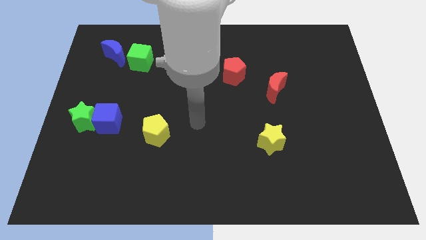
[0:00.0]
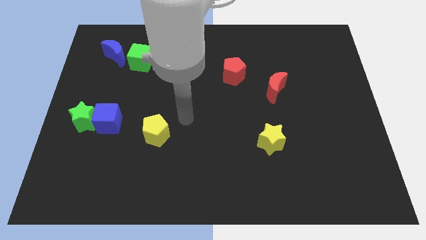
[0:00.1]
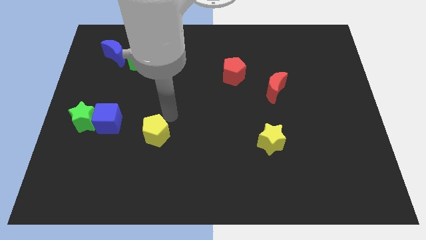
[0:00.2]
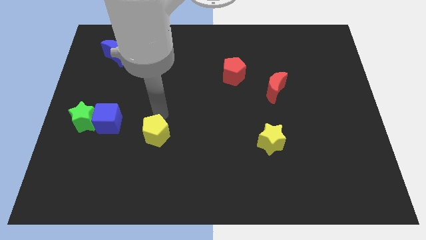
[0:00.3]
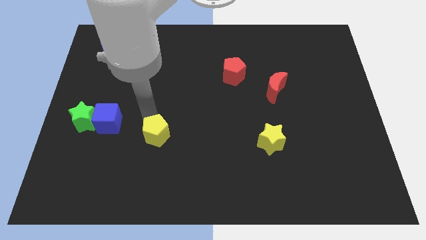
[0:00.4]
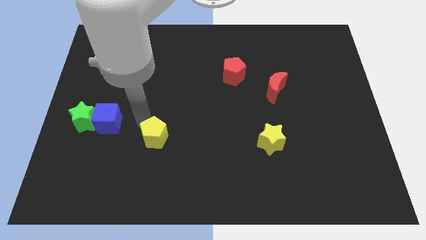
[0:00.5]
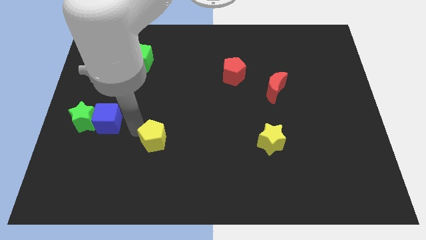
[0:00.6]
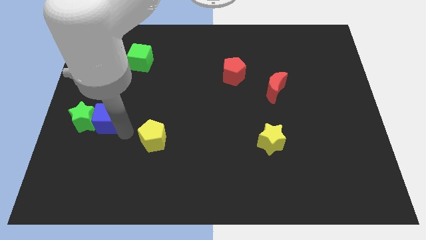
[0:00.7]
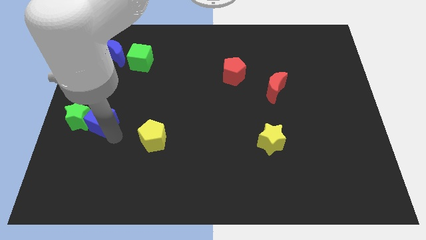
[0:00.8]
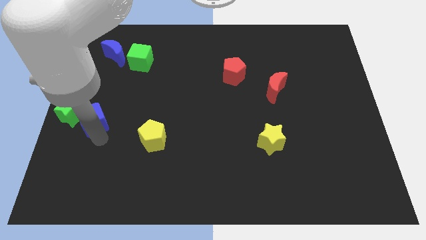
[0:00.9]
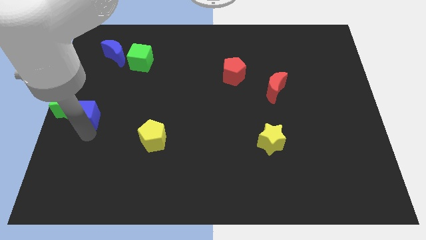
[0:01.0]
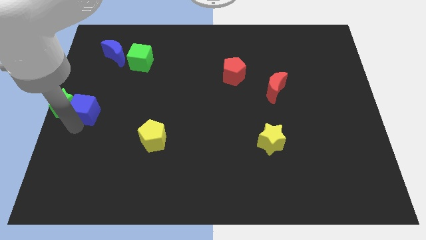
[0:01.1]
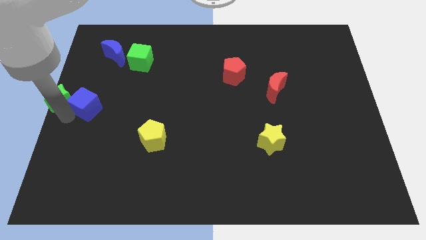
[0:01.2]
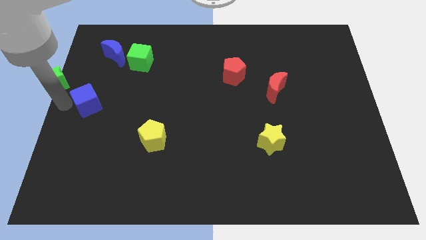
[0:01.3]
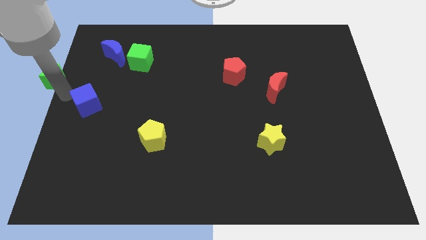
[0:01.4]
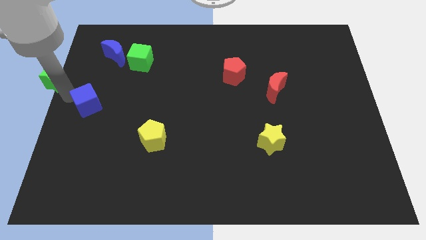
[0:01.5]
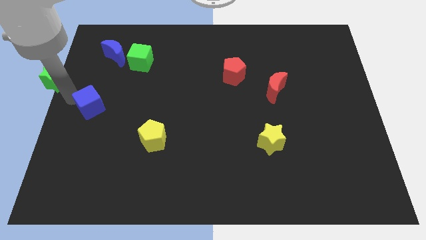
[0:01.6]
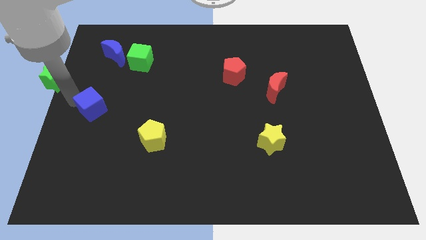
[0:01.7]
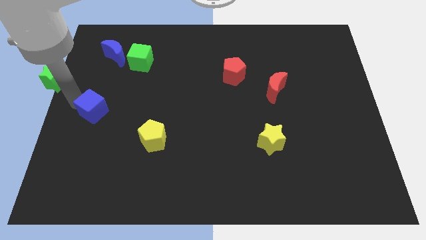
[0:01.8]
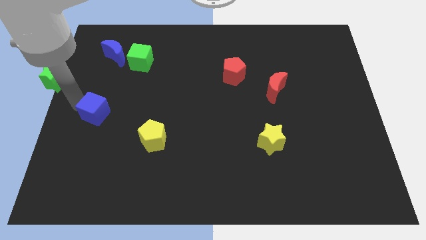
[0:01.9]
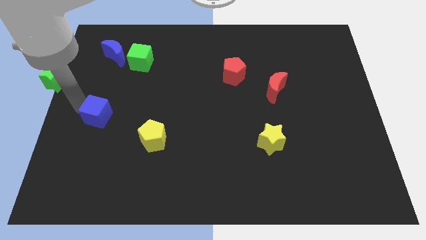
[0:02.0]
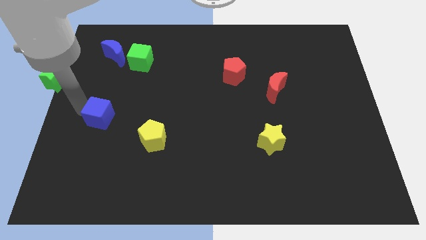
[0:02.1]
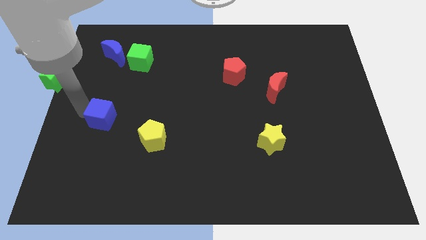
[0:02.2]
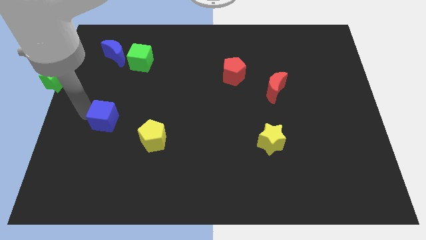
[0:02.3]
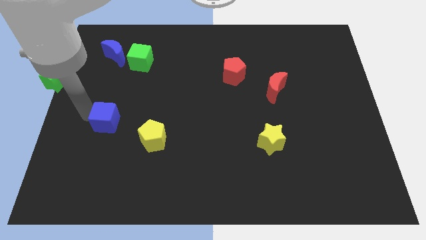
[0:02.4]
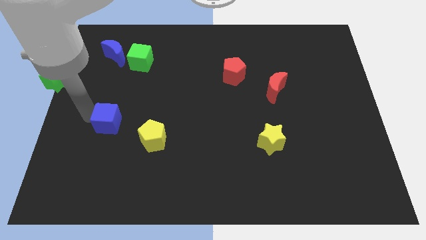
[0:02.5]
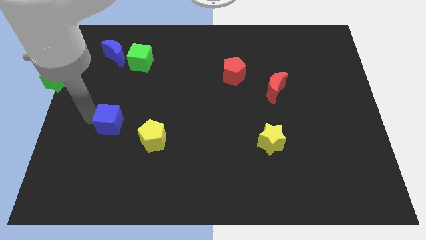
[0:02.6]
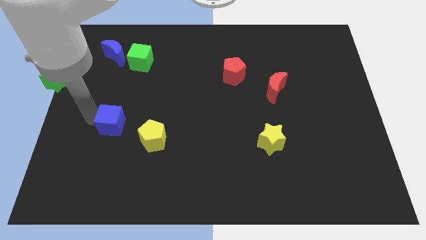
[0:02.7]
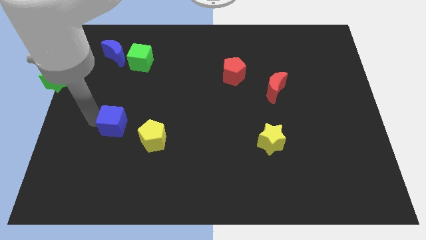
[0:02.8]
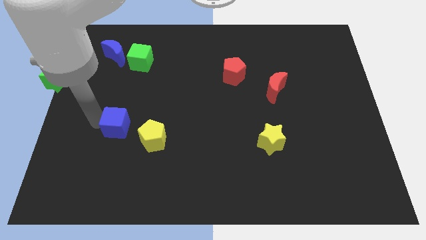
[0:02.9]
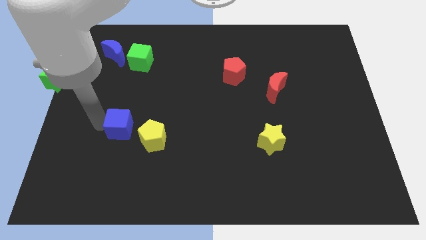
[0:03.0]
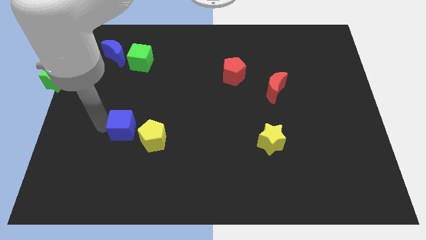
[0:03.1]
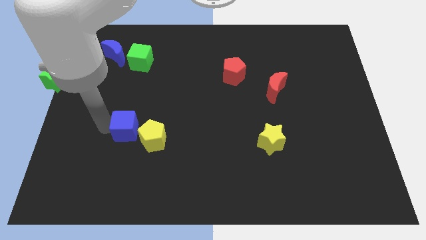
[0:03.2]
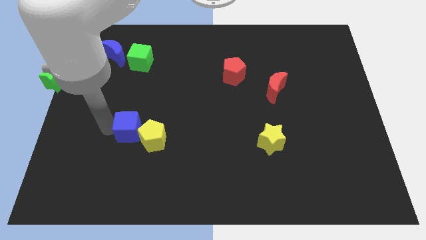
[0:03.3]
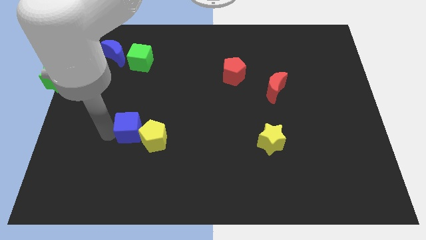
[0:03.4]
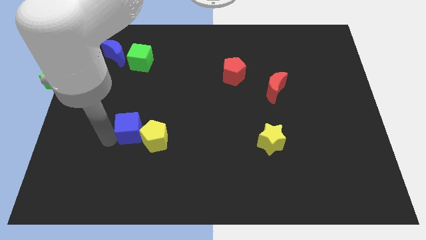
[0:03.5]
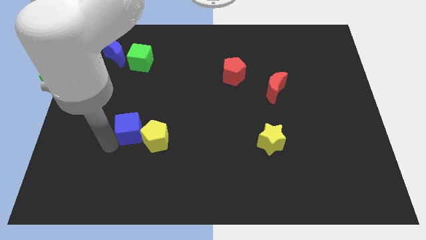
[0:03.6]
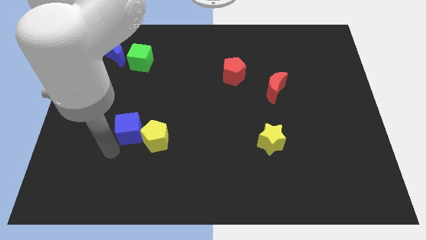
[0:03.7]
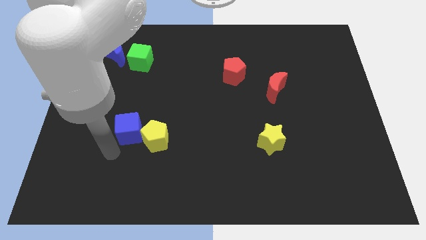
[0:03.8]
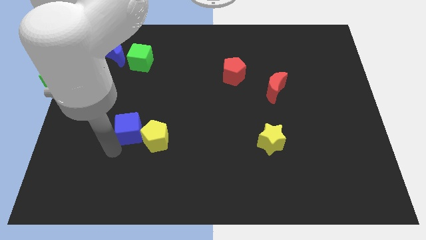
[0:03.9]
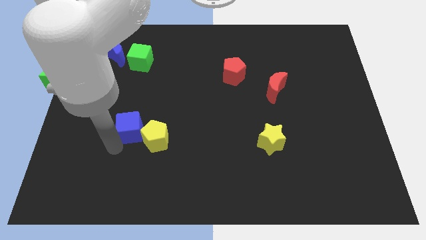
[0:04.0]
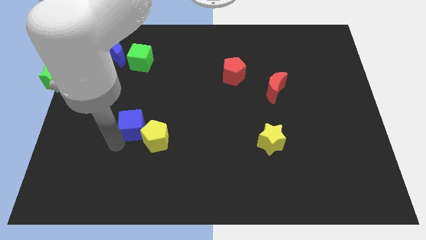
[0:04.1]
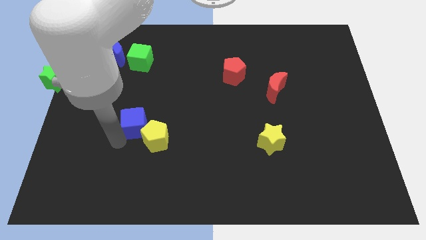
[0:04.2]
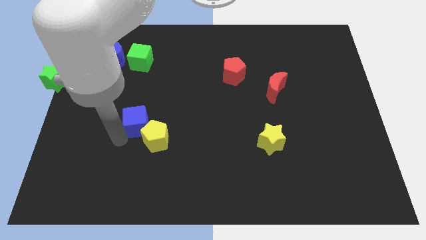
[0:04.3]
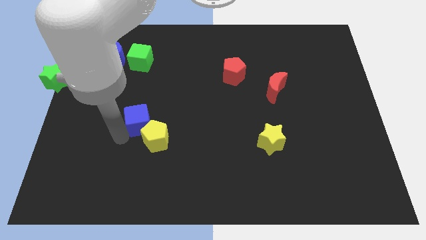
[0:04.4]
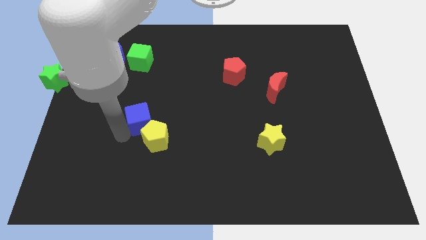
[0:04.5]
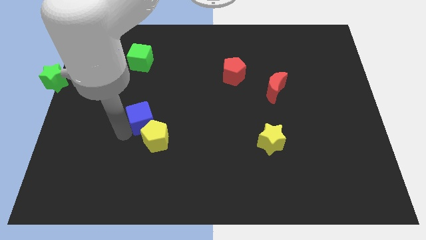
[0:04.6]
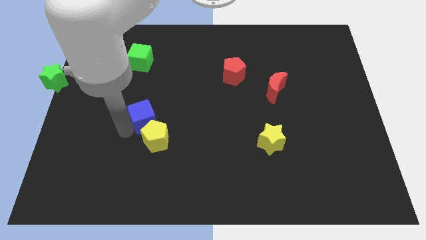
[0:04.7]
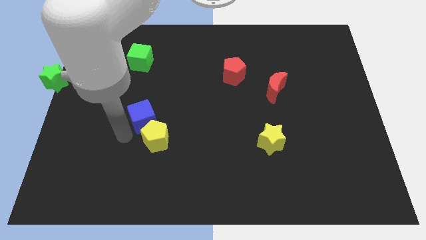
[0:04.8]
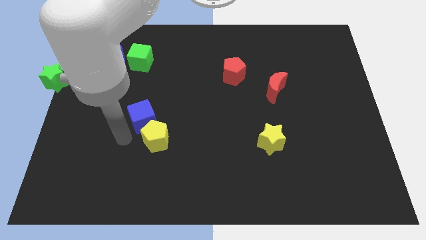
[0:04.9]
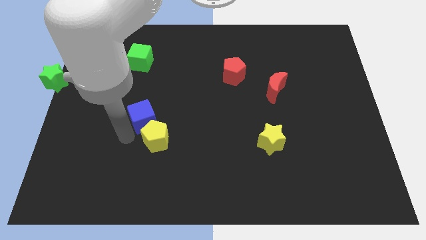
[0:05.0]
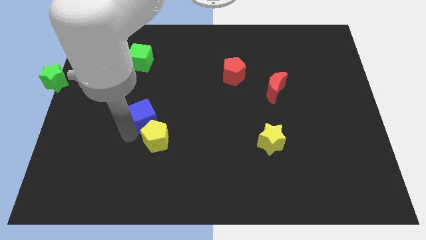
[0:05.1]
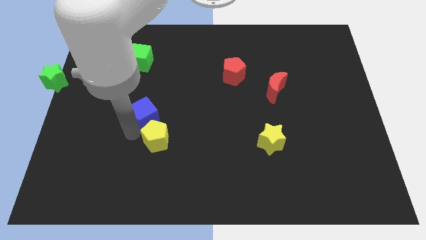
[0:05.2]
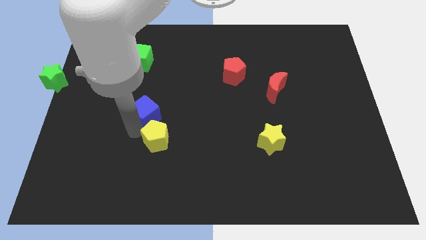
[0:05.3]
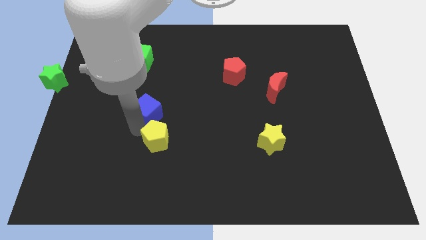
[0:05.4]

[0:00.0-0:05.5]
slide the blue cube upwards and right a bit

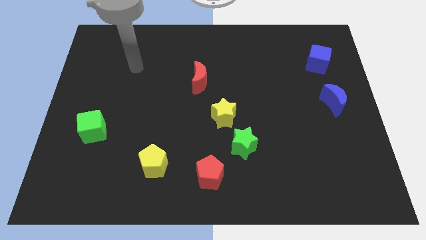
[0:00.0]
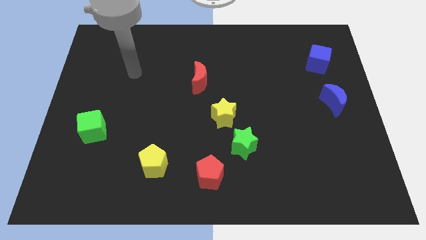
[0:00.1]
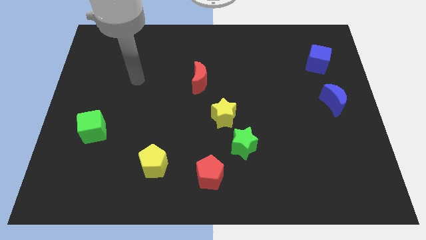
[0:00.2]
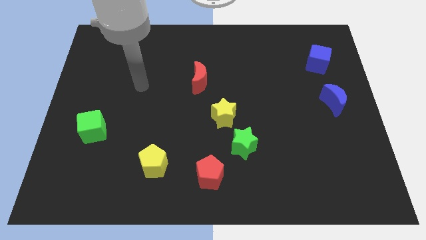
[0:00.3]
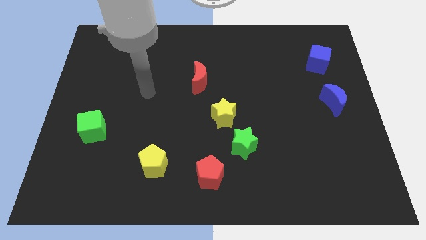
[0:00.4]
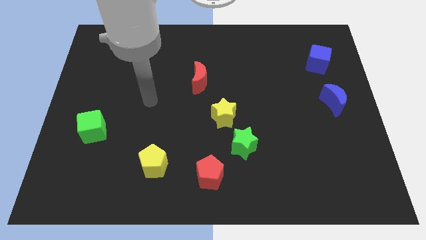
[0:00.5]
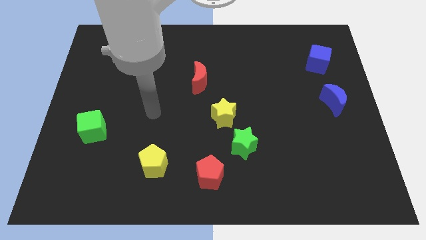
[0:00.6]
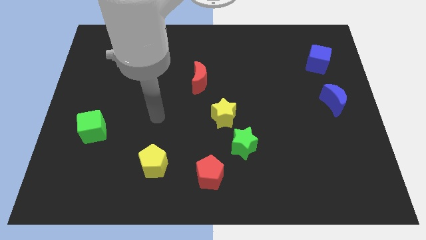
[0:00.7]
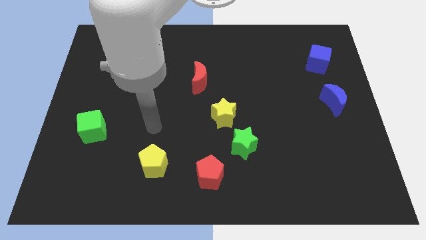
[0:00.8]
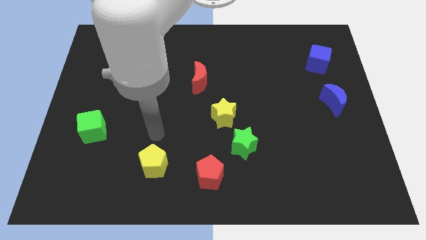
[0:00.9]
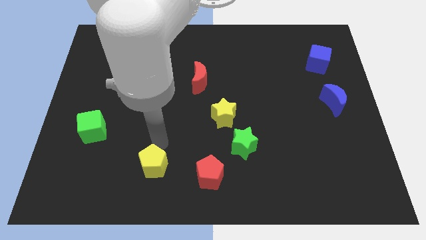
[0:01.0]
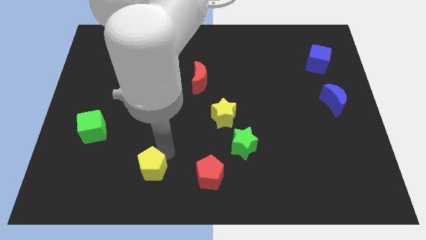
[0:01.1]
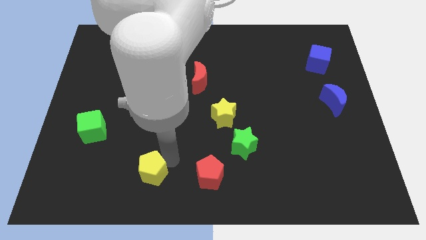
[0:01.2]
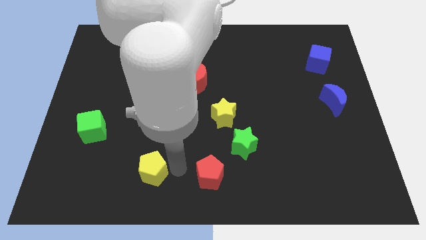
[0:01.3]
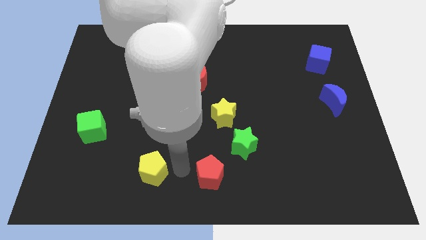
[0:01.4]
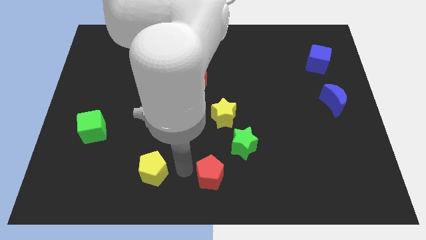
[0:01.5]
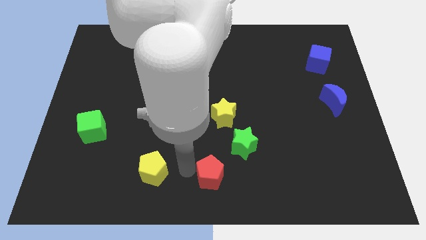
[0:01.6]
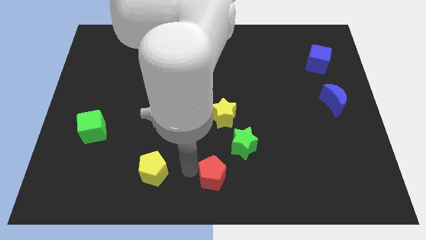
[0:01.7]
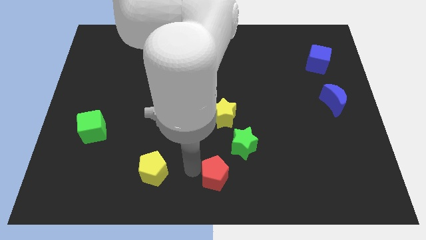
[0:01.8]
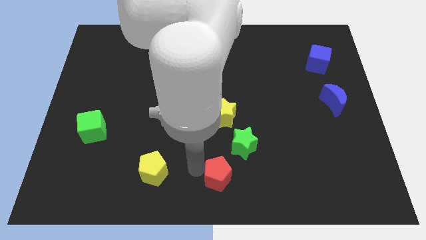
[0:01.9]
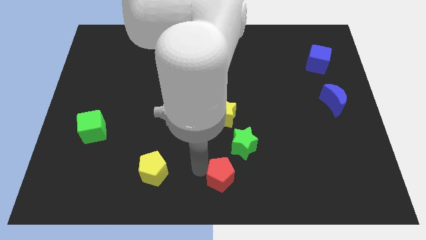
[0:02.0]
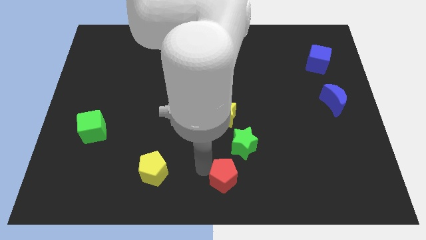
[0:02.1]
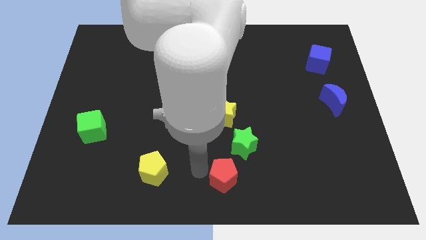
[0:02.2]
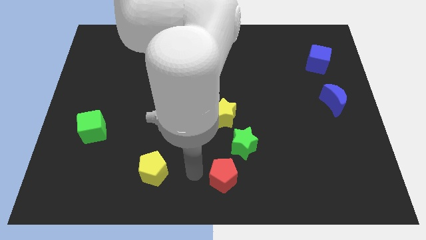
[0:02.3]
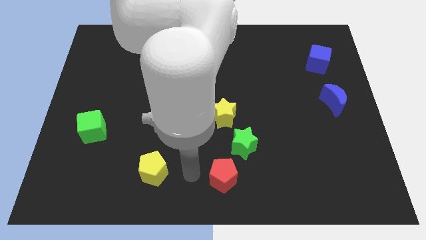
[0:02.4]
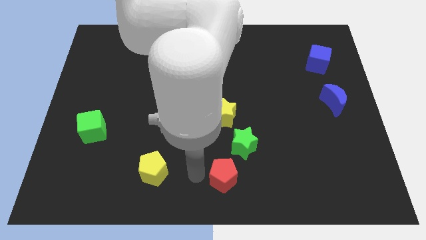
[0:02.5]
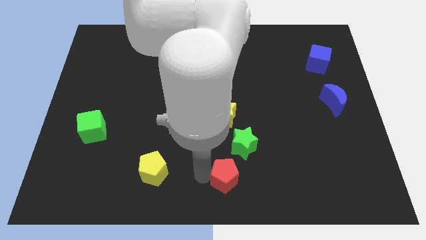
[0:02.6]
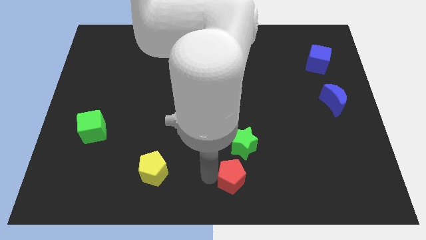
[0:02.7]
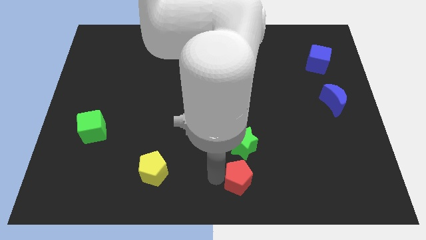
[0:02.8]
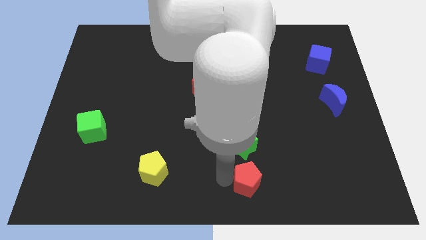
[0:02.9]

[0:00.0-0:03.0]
push the red pentagon slightly to the right
